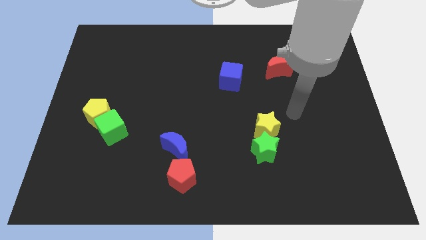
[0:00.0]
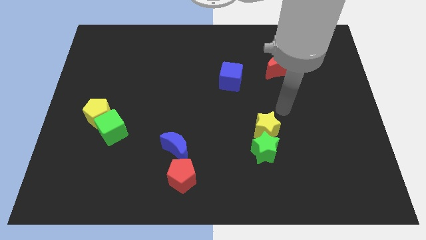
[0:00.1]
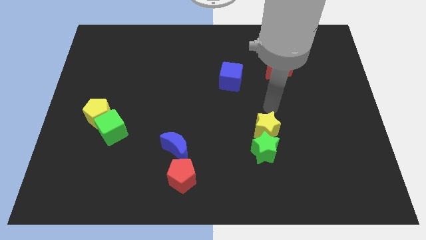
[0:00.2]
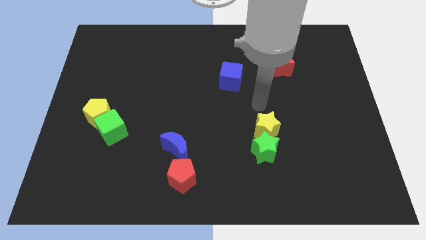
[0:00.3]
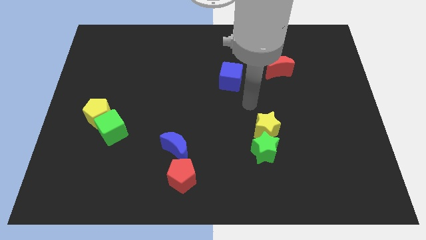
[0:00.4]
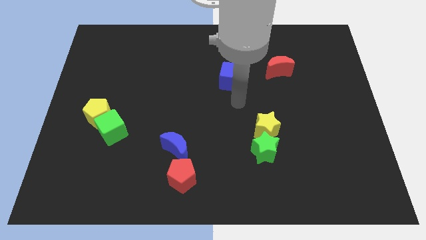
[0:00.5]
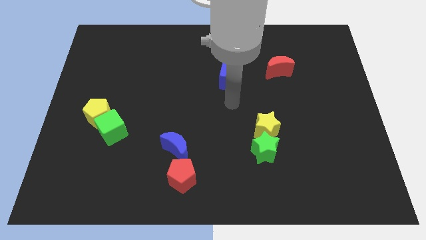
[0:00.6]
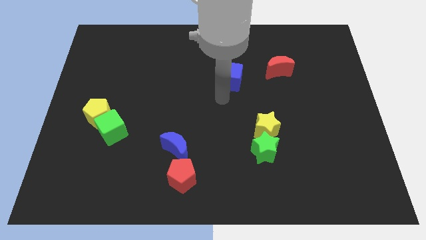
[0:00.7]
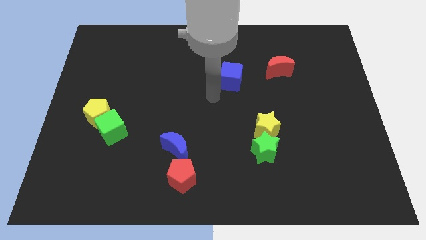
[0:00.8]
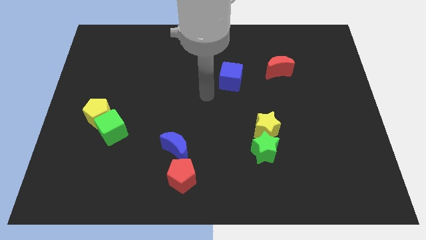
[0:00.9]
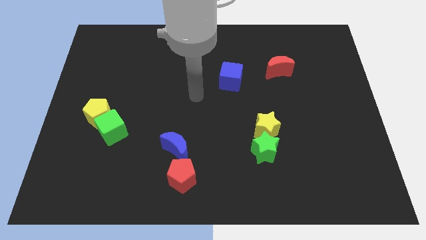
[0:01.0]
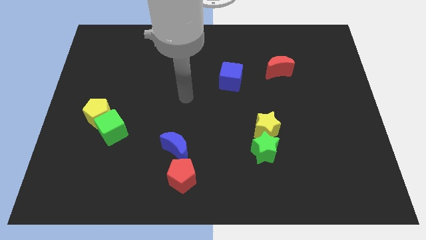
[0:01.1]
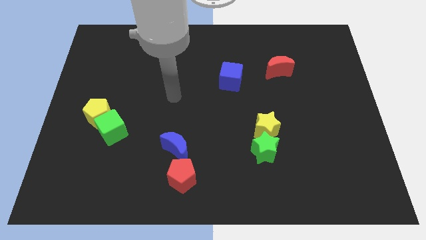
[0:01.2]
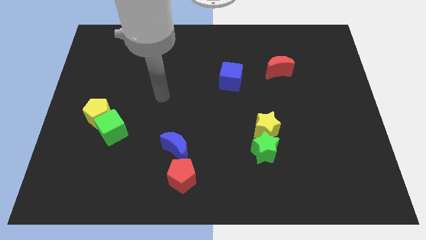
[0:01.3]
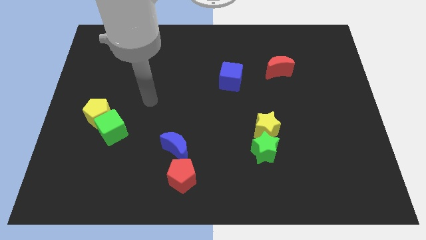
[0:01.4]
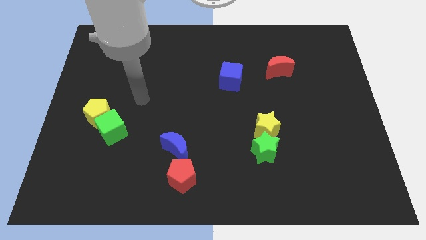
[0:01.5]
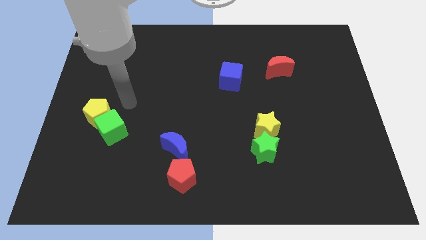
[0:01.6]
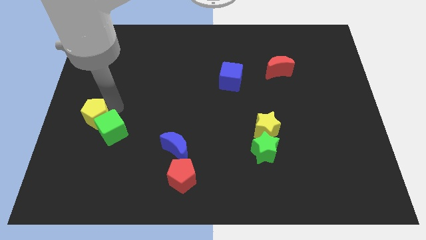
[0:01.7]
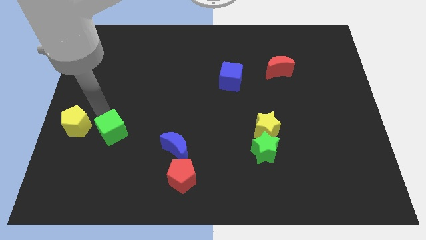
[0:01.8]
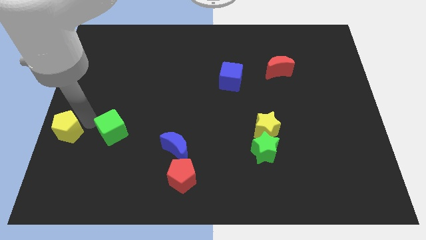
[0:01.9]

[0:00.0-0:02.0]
move the green cube away from the yellow pentagon

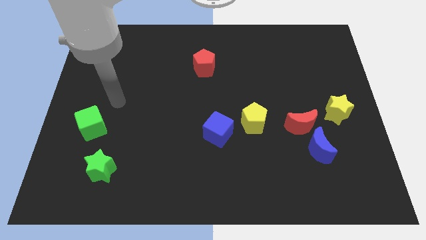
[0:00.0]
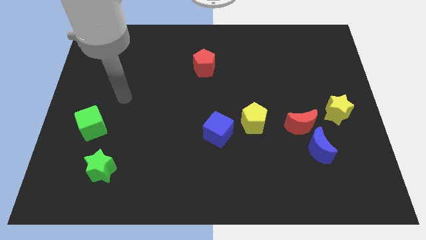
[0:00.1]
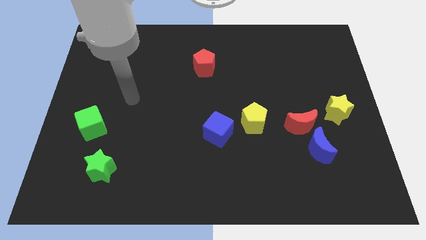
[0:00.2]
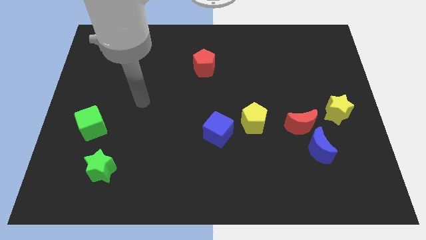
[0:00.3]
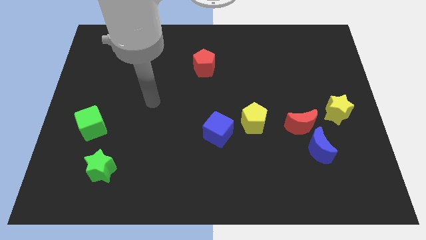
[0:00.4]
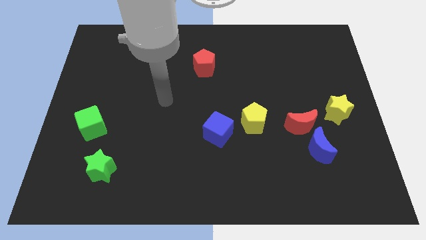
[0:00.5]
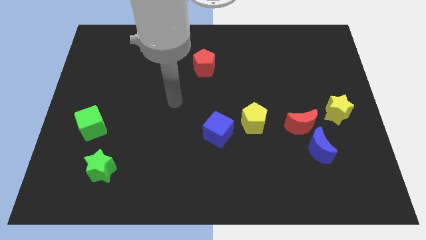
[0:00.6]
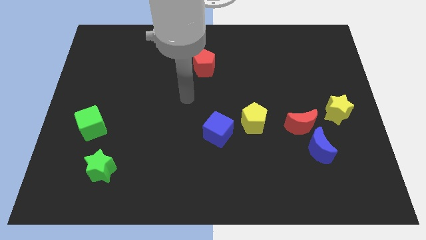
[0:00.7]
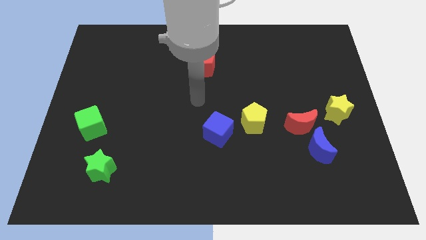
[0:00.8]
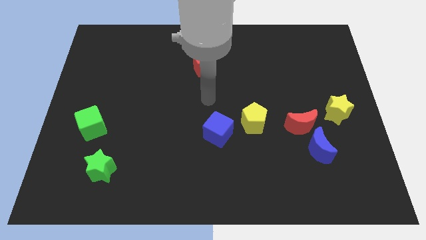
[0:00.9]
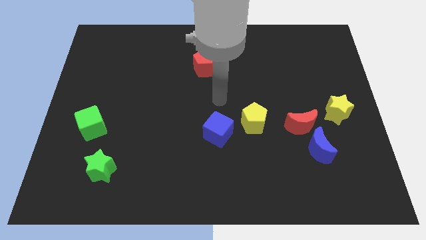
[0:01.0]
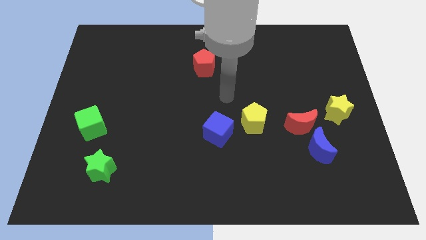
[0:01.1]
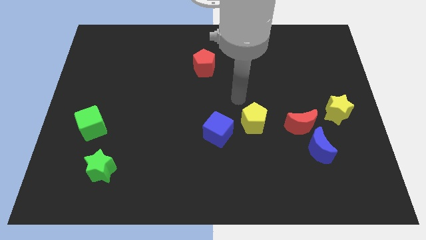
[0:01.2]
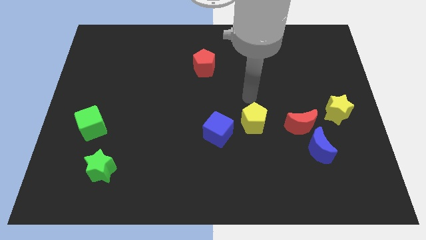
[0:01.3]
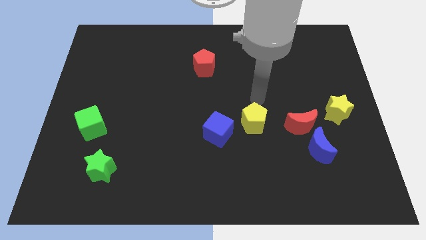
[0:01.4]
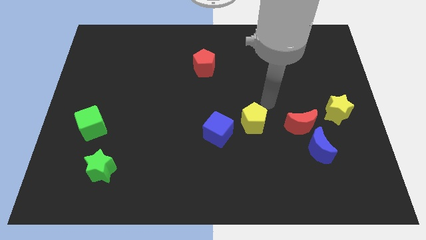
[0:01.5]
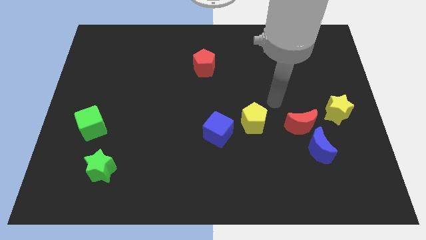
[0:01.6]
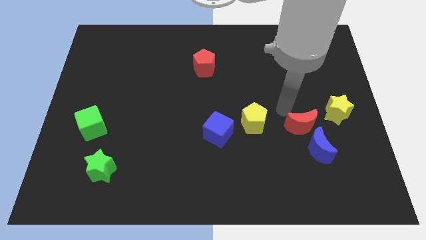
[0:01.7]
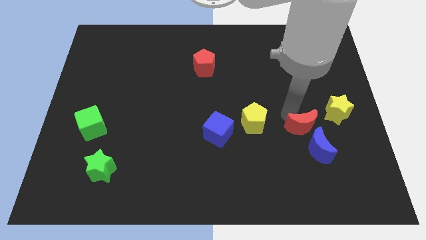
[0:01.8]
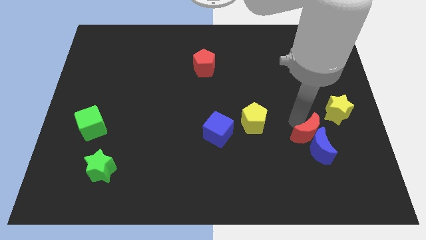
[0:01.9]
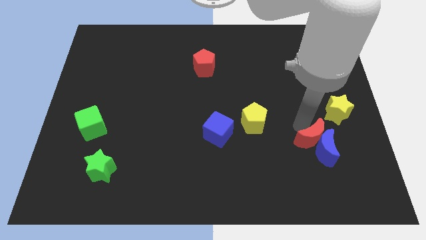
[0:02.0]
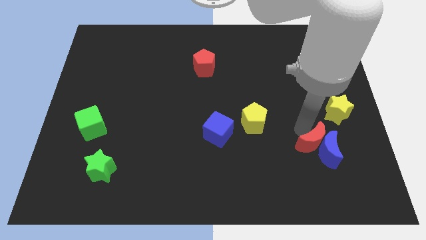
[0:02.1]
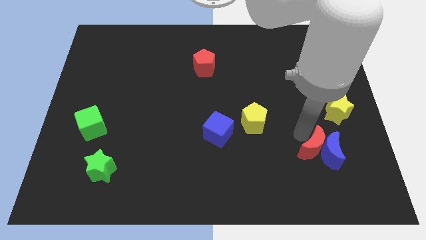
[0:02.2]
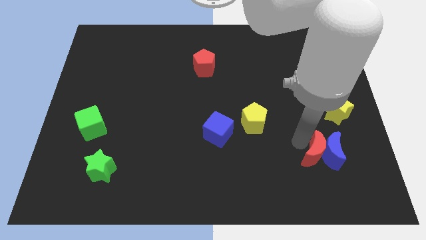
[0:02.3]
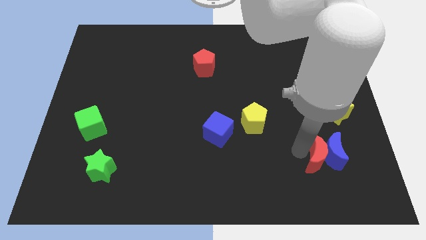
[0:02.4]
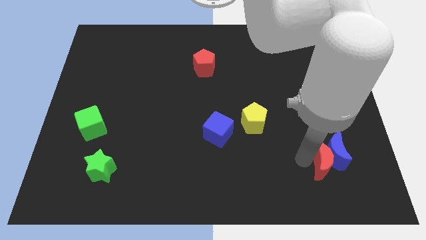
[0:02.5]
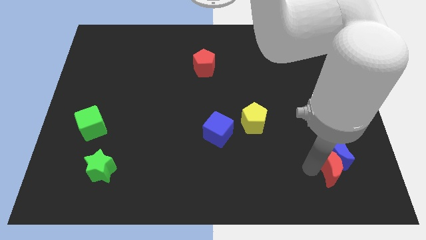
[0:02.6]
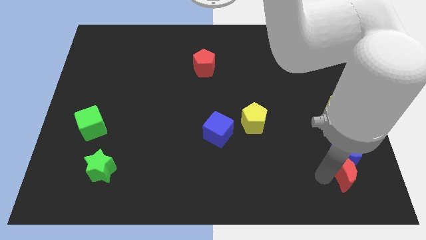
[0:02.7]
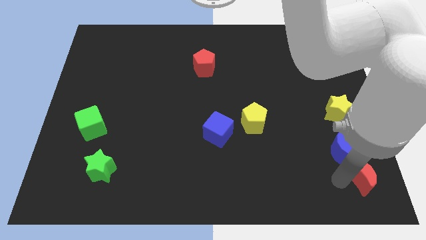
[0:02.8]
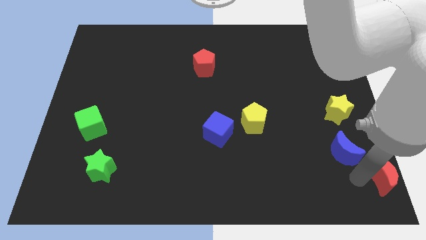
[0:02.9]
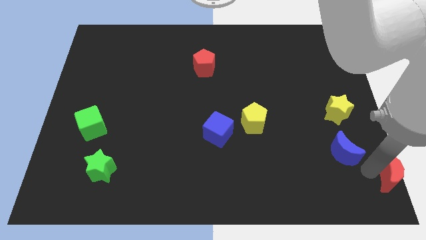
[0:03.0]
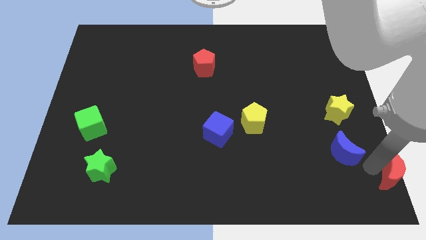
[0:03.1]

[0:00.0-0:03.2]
move the blue moon away from the red moon

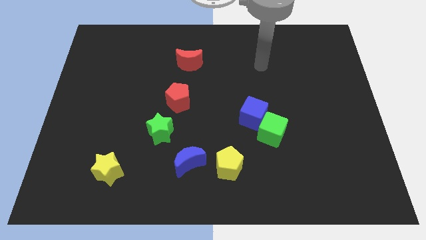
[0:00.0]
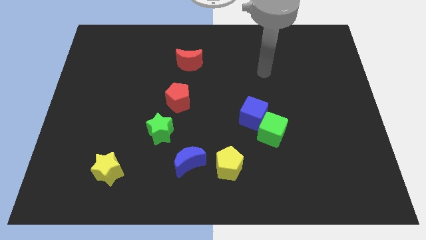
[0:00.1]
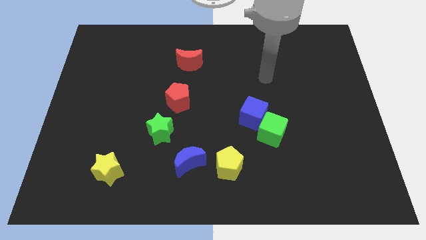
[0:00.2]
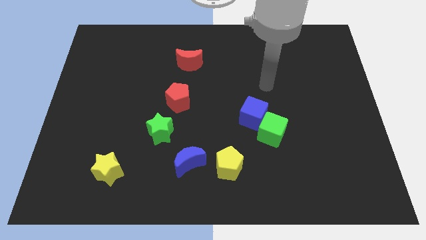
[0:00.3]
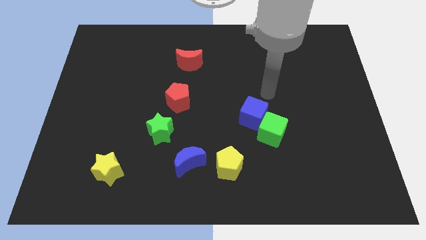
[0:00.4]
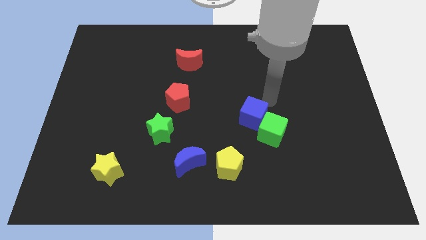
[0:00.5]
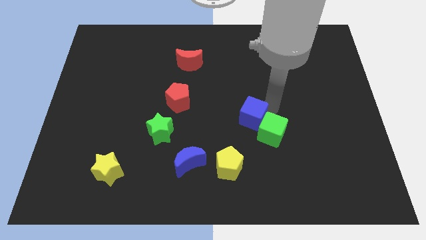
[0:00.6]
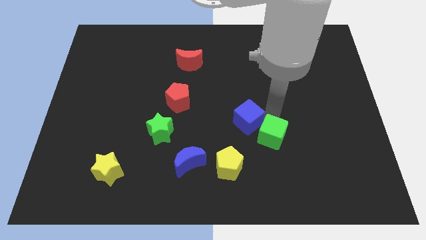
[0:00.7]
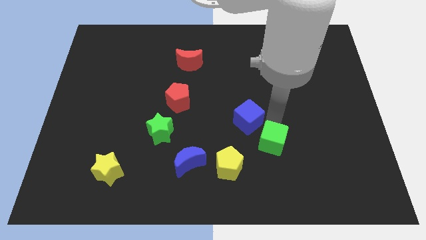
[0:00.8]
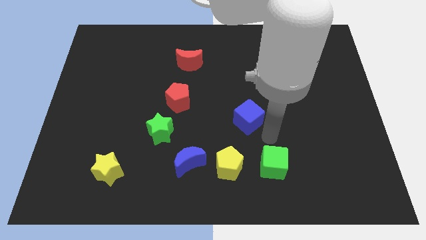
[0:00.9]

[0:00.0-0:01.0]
pull the blue cube apart from the green cube

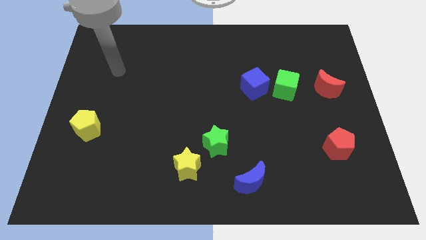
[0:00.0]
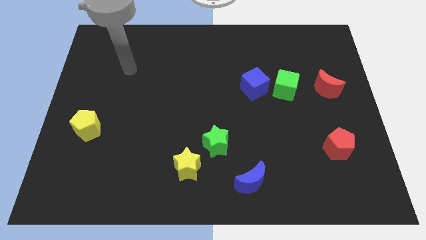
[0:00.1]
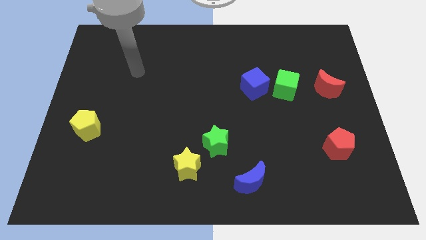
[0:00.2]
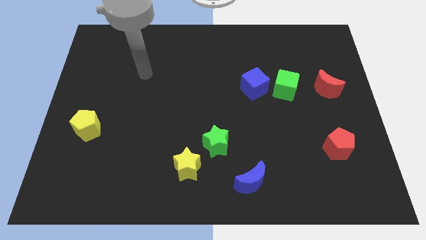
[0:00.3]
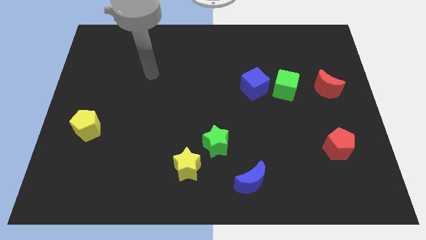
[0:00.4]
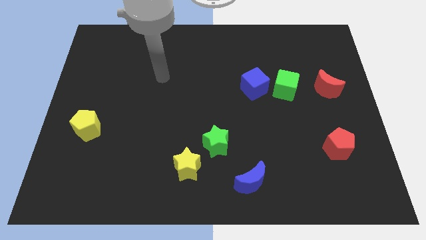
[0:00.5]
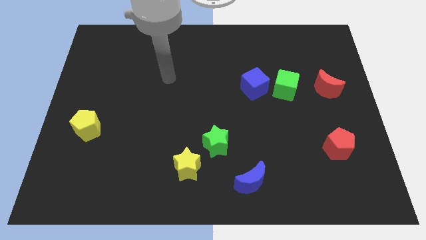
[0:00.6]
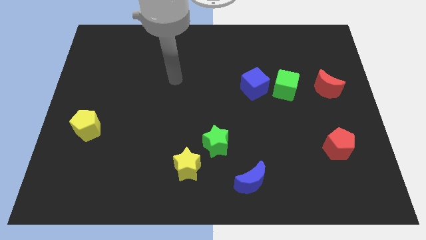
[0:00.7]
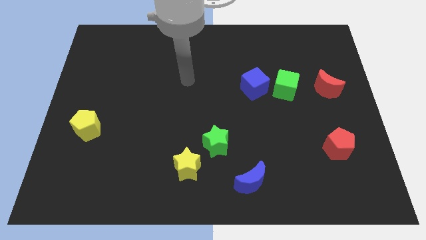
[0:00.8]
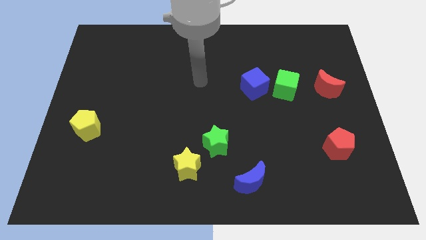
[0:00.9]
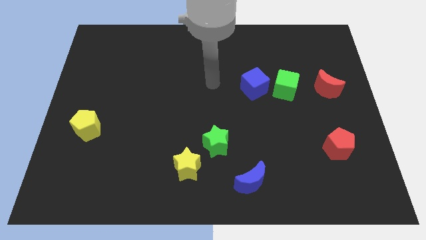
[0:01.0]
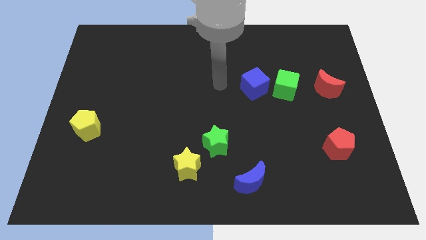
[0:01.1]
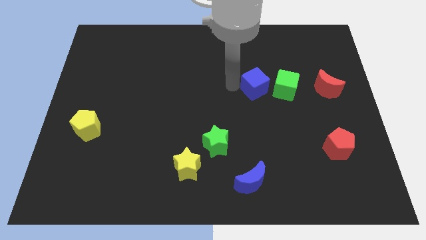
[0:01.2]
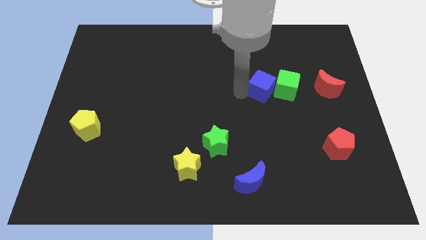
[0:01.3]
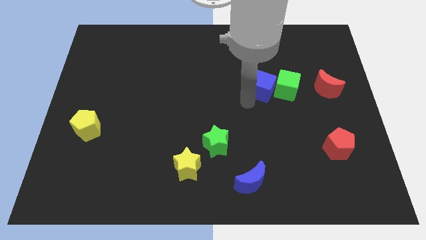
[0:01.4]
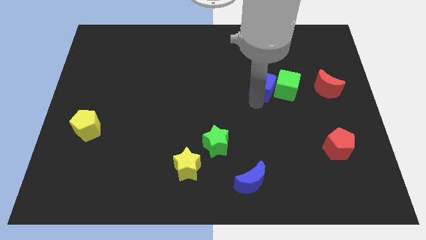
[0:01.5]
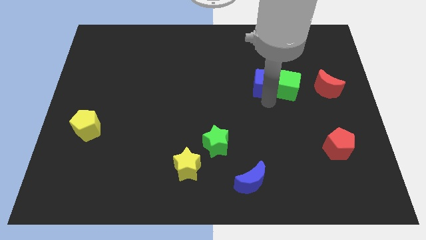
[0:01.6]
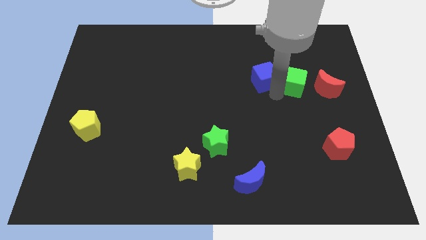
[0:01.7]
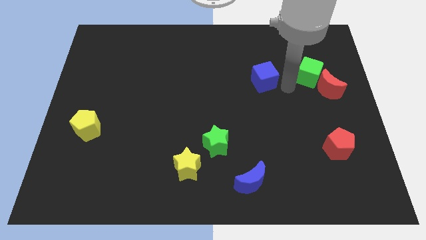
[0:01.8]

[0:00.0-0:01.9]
separate the blue cube from the green cube

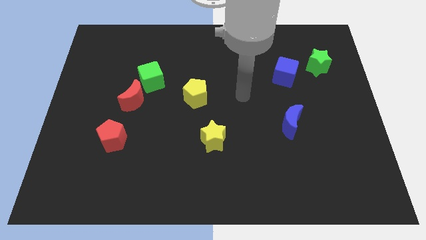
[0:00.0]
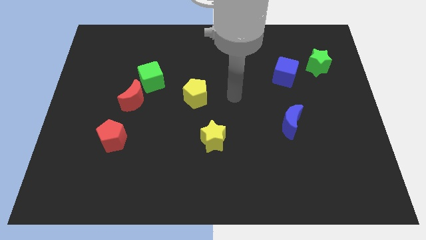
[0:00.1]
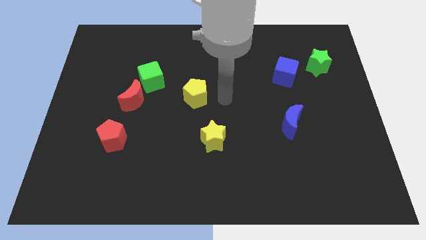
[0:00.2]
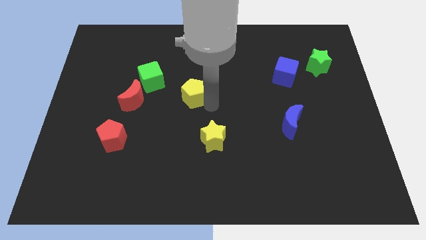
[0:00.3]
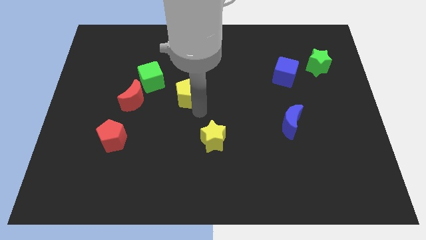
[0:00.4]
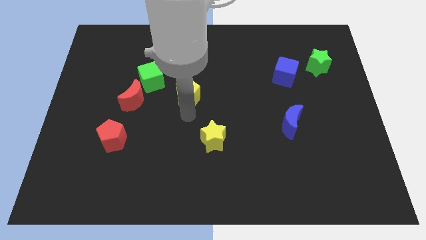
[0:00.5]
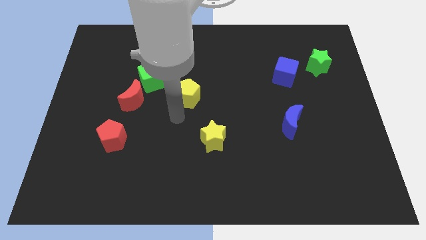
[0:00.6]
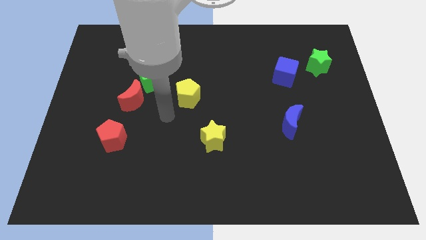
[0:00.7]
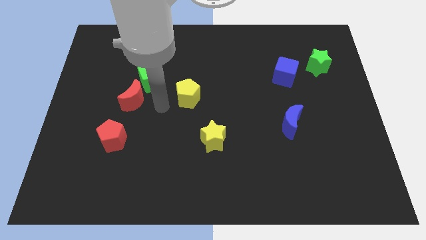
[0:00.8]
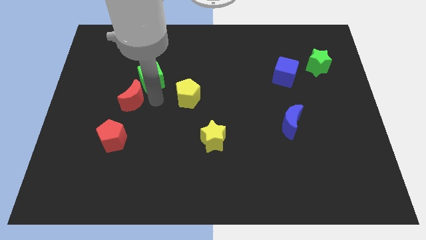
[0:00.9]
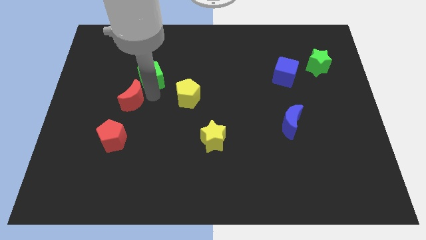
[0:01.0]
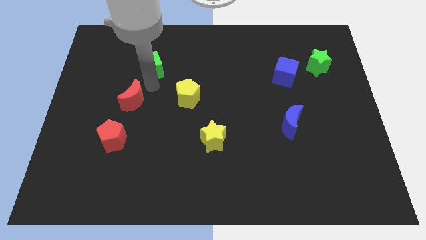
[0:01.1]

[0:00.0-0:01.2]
move the red moon away from the green cube

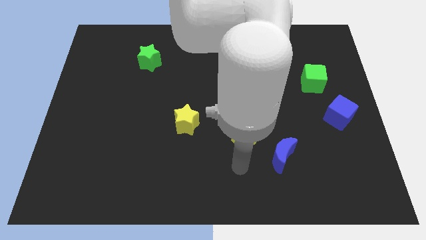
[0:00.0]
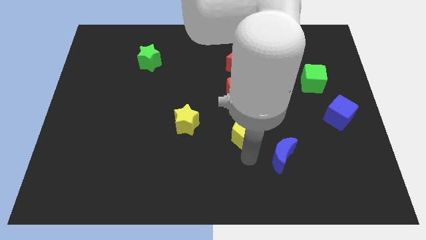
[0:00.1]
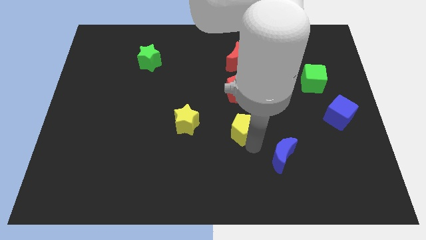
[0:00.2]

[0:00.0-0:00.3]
separate the blue moon from the yellow pentagon
